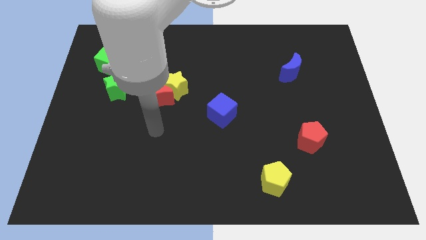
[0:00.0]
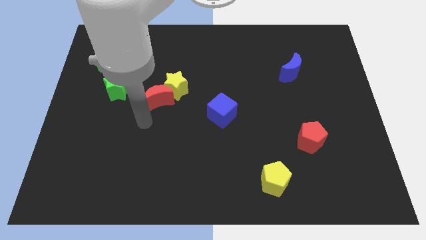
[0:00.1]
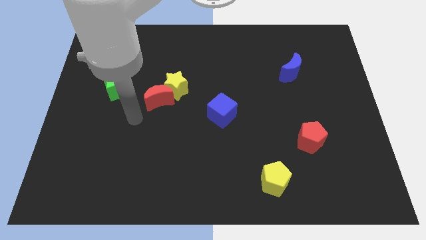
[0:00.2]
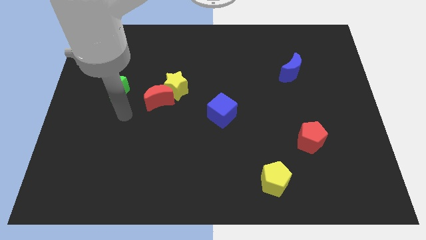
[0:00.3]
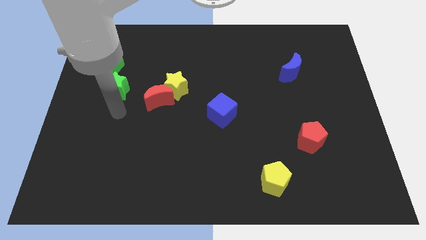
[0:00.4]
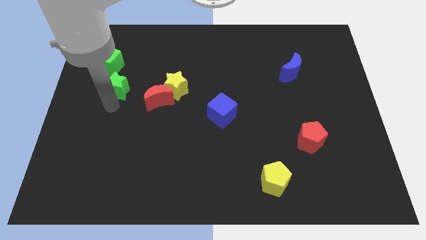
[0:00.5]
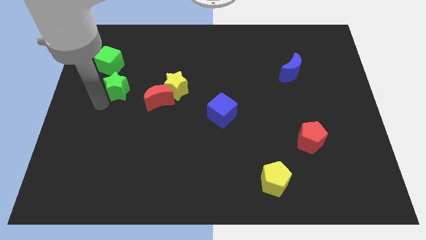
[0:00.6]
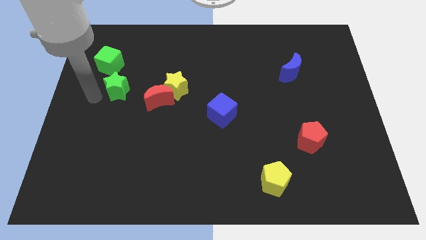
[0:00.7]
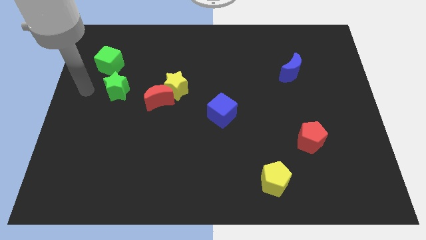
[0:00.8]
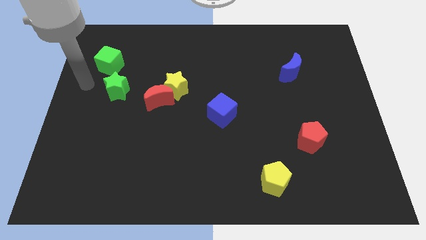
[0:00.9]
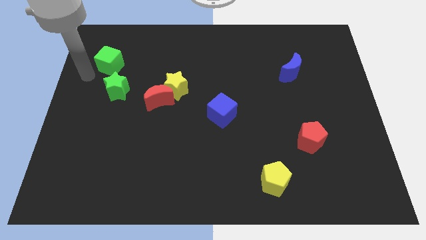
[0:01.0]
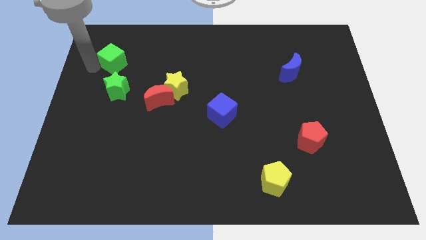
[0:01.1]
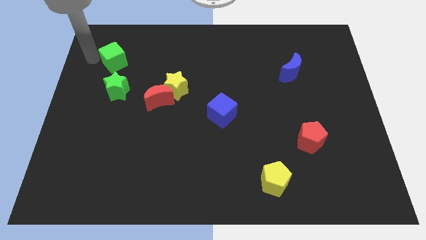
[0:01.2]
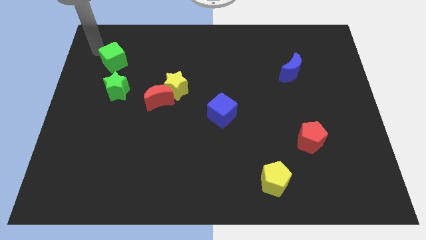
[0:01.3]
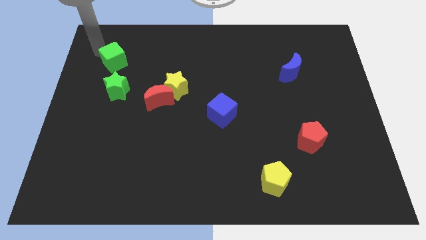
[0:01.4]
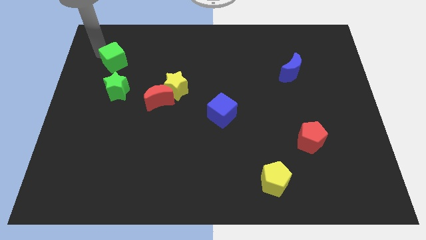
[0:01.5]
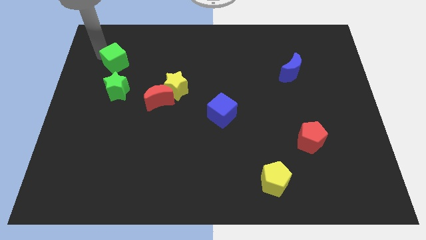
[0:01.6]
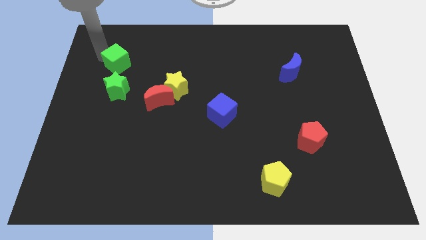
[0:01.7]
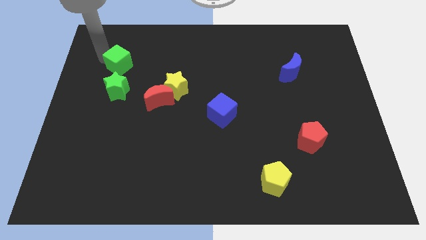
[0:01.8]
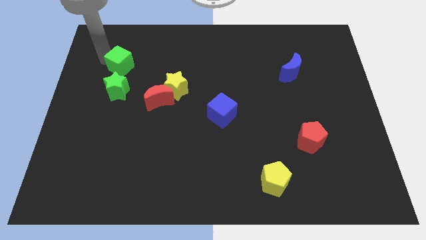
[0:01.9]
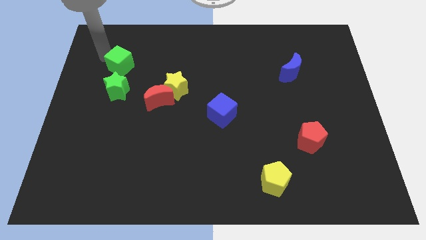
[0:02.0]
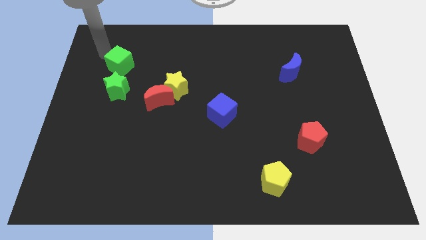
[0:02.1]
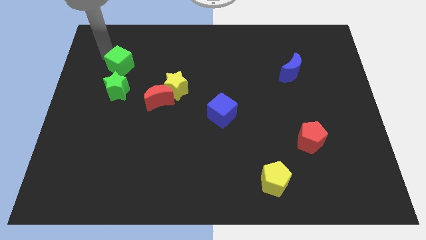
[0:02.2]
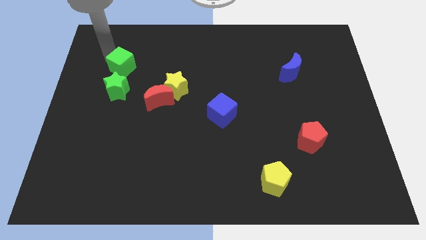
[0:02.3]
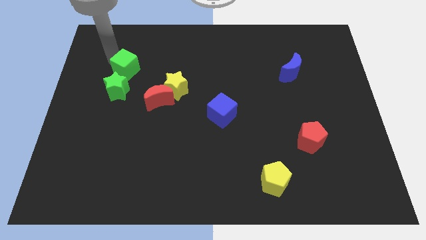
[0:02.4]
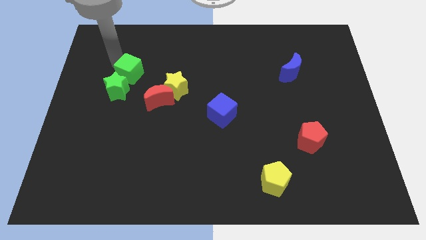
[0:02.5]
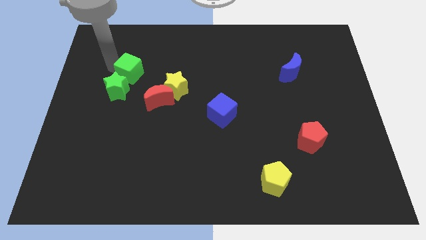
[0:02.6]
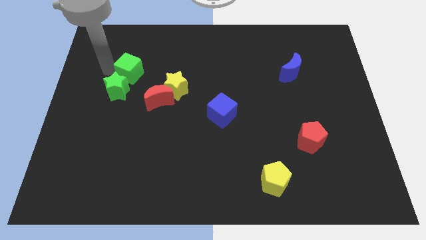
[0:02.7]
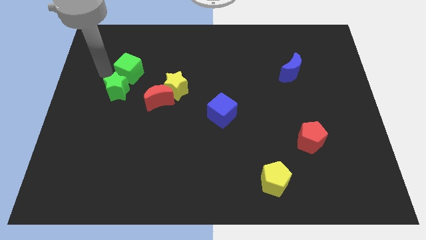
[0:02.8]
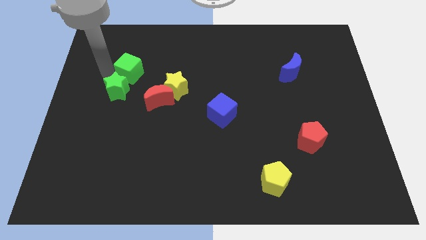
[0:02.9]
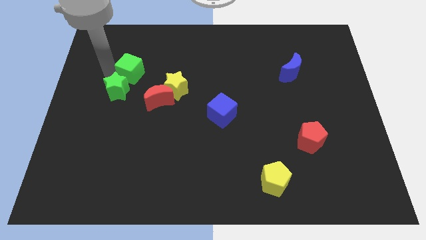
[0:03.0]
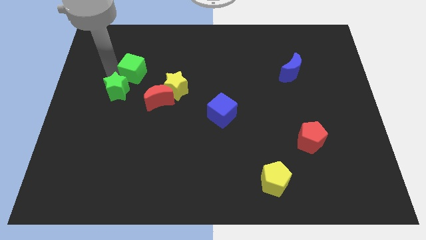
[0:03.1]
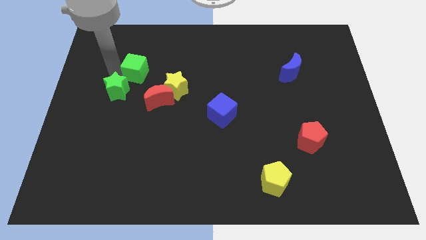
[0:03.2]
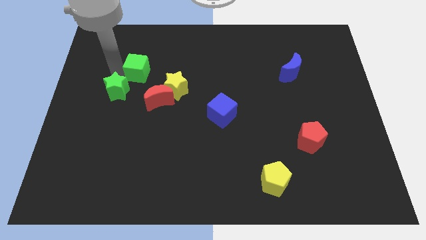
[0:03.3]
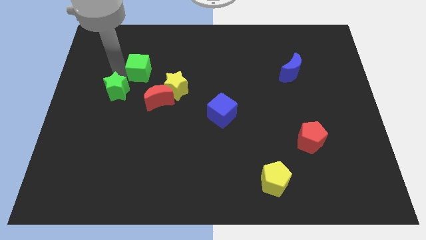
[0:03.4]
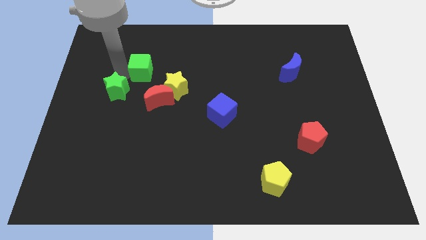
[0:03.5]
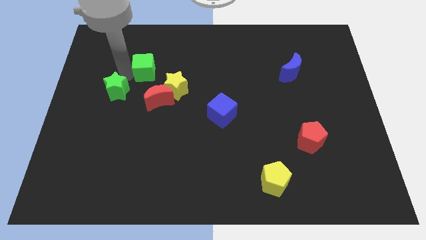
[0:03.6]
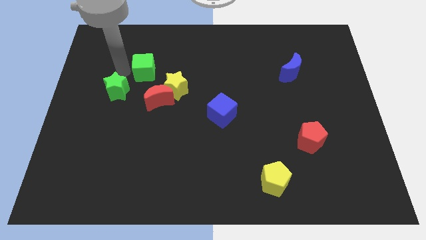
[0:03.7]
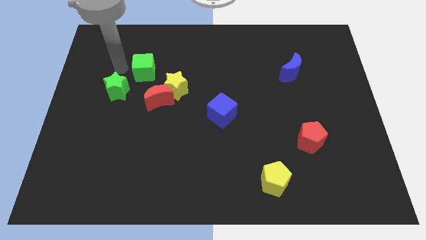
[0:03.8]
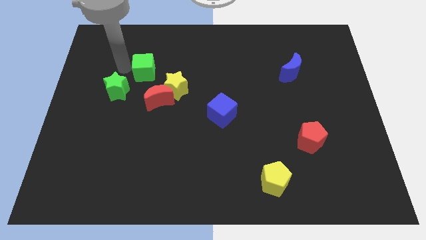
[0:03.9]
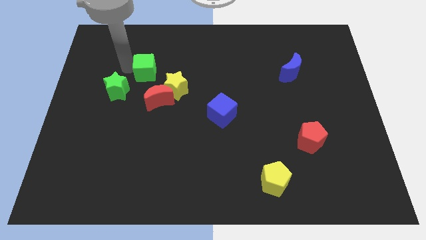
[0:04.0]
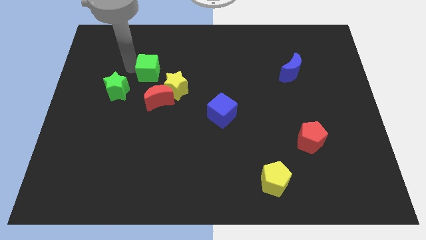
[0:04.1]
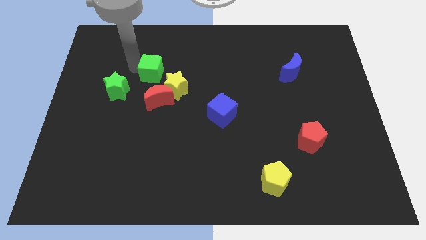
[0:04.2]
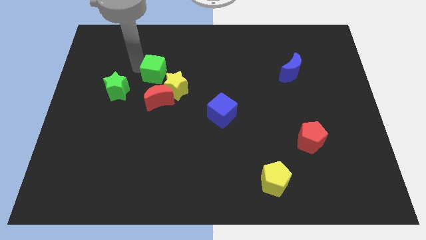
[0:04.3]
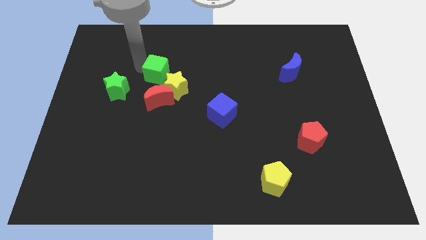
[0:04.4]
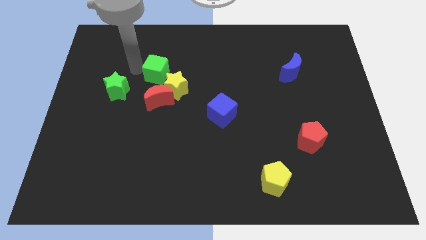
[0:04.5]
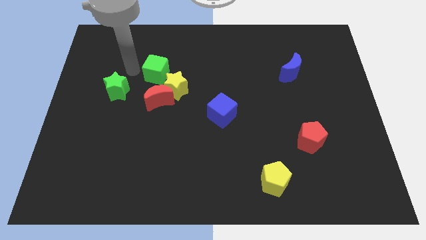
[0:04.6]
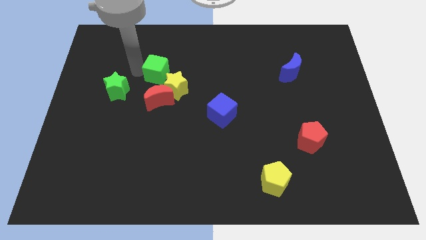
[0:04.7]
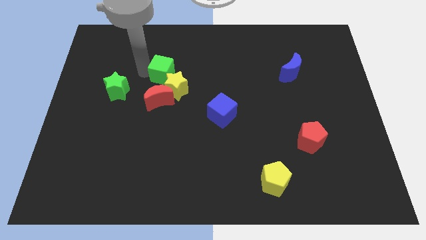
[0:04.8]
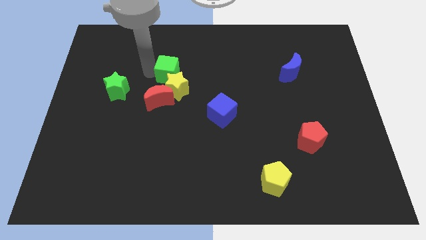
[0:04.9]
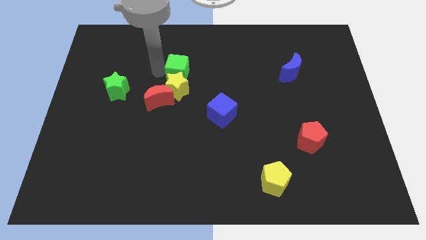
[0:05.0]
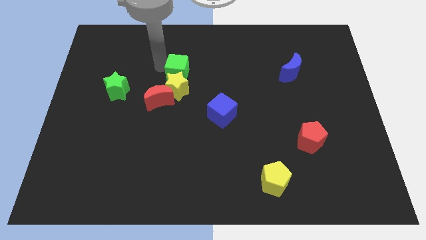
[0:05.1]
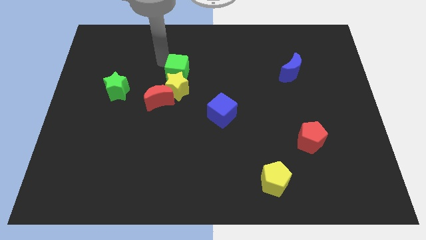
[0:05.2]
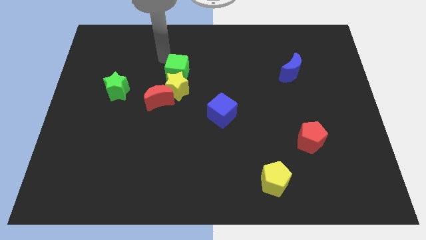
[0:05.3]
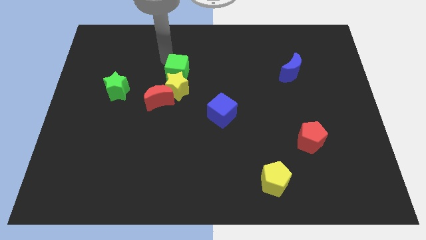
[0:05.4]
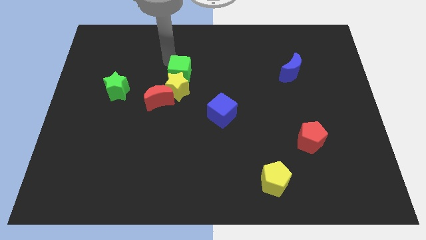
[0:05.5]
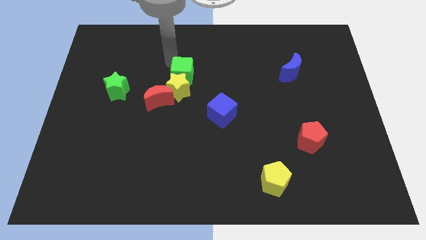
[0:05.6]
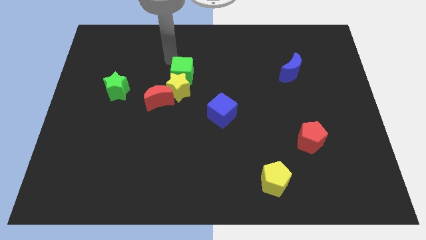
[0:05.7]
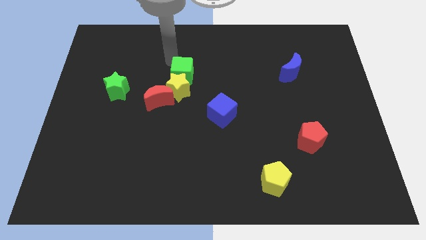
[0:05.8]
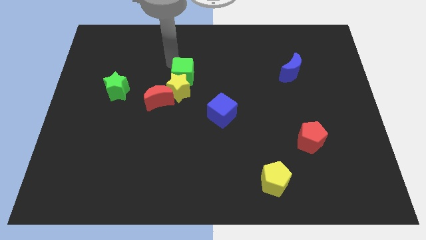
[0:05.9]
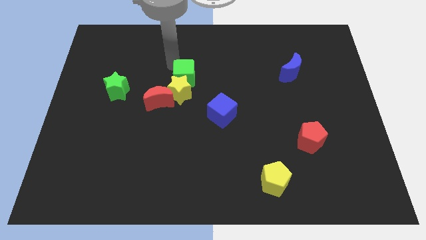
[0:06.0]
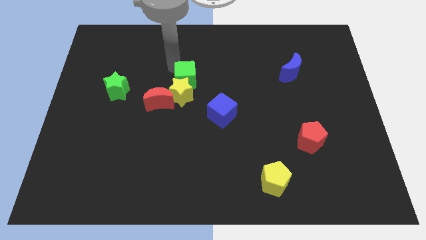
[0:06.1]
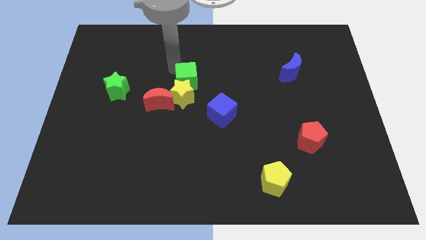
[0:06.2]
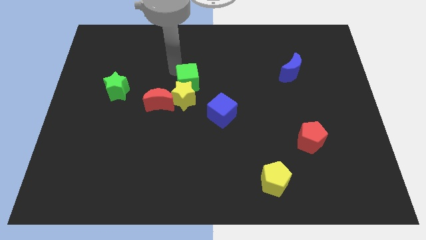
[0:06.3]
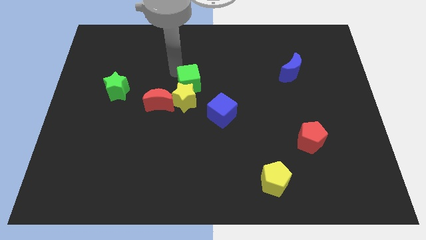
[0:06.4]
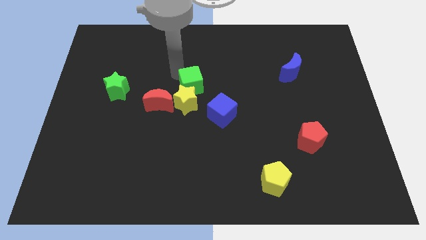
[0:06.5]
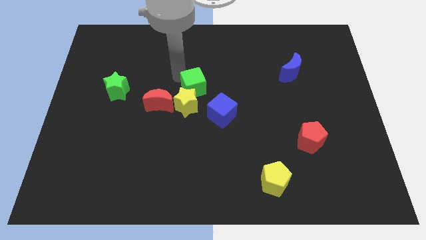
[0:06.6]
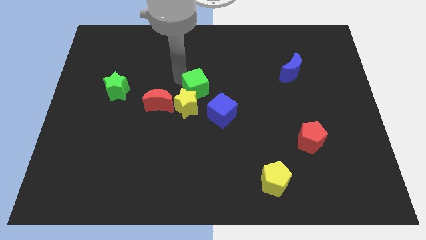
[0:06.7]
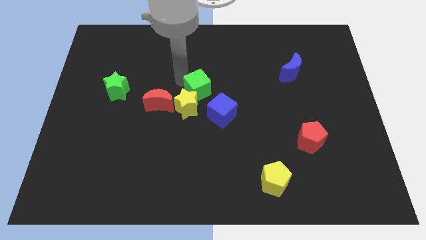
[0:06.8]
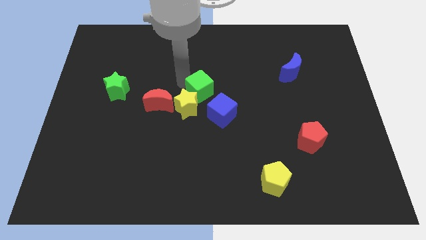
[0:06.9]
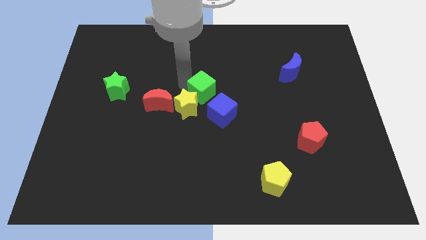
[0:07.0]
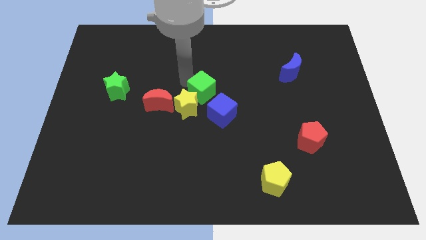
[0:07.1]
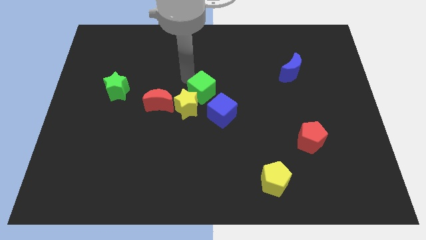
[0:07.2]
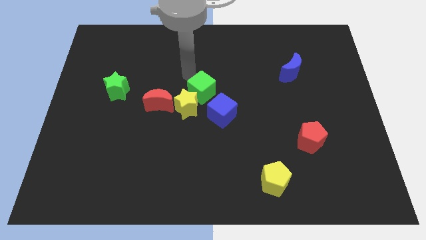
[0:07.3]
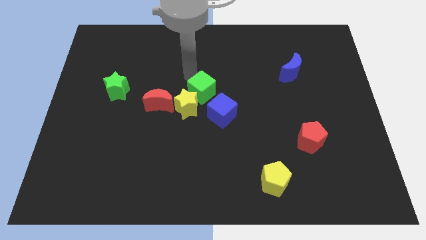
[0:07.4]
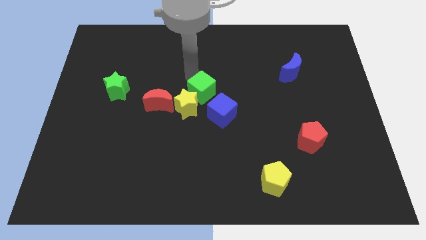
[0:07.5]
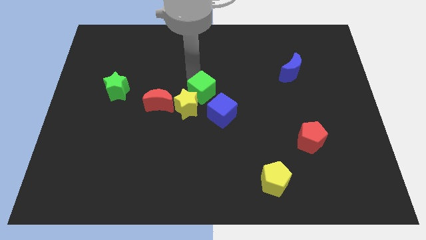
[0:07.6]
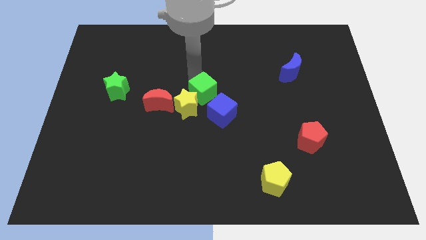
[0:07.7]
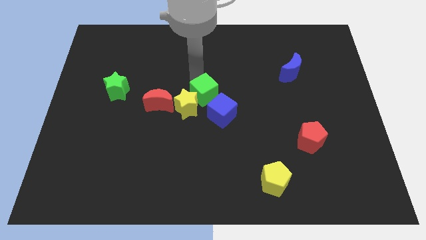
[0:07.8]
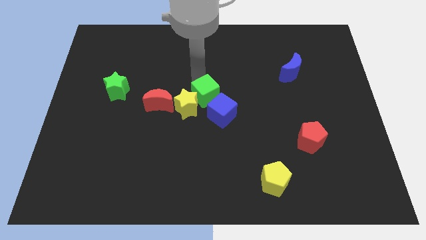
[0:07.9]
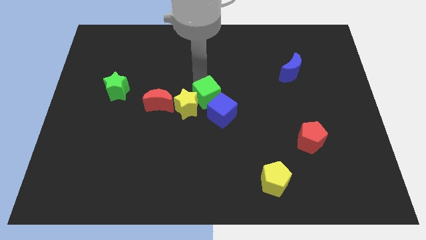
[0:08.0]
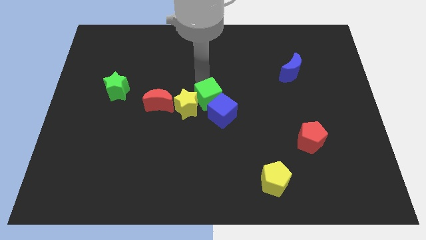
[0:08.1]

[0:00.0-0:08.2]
put the green cube to the blue cube
